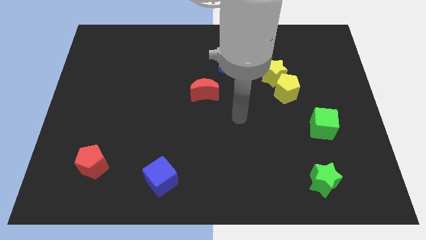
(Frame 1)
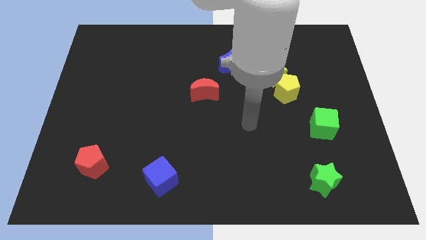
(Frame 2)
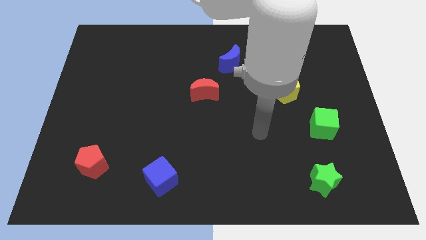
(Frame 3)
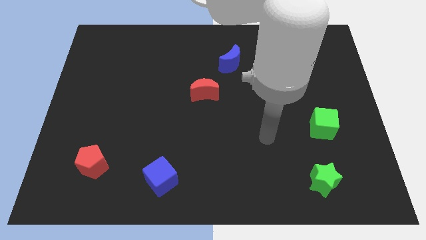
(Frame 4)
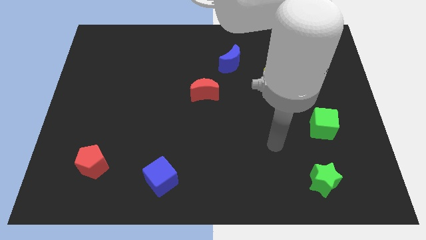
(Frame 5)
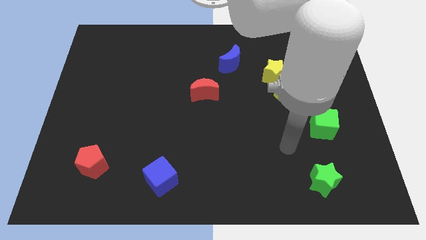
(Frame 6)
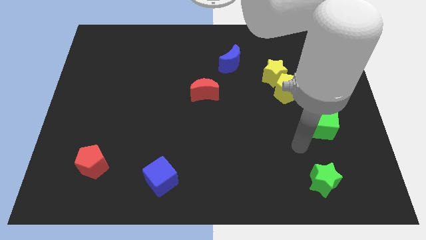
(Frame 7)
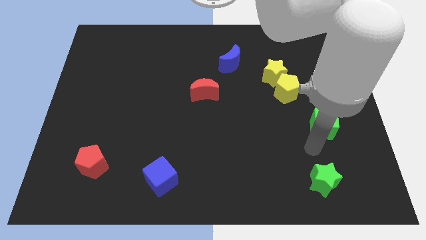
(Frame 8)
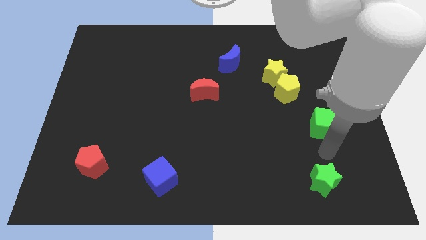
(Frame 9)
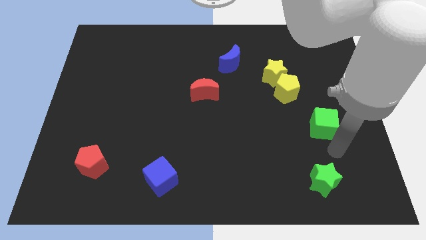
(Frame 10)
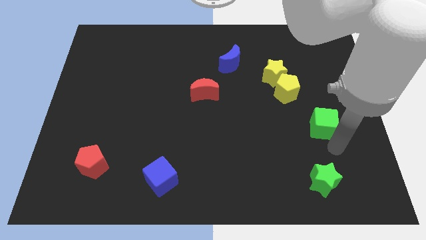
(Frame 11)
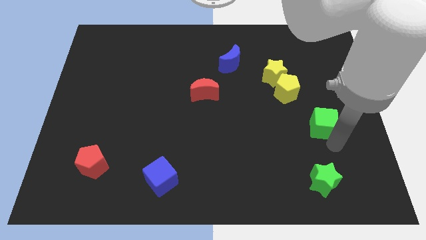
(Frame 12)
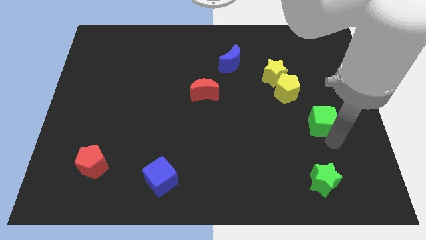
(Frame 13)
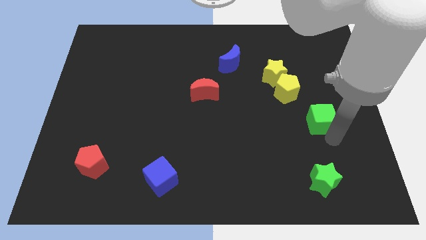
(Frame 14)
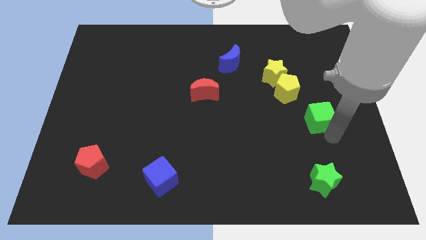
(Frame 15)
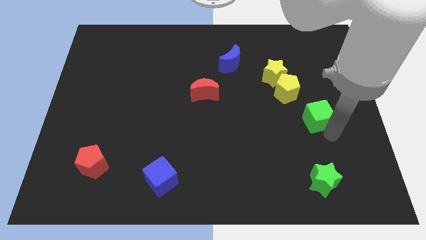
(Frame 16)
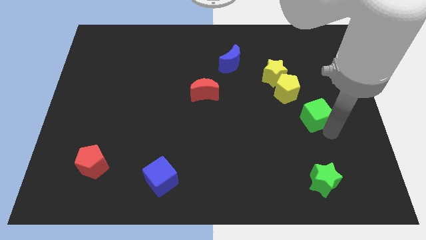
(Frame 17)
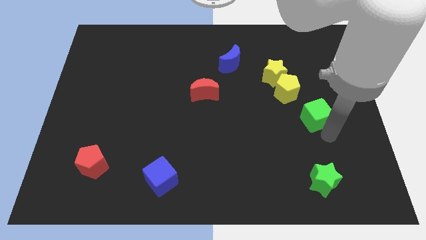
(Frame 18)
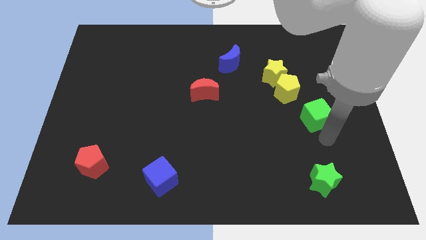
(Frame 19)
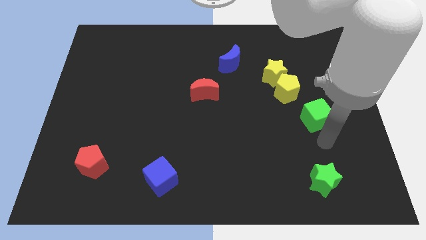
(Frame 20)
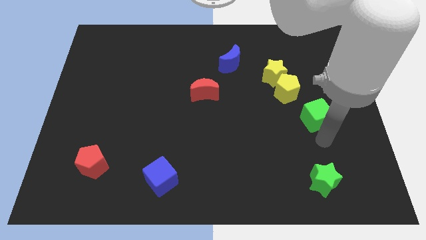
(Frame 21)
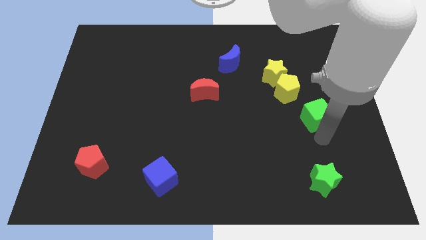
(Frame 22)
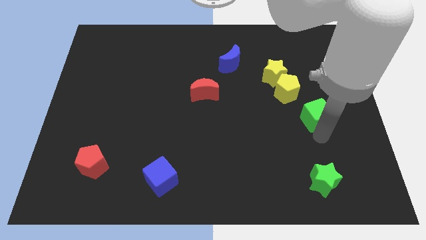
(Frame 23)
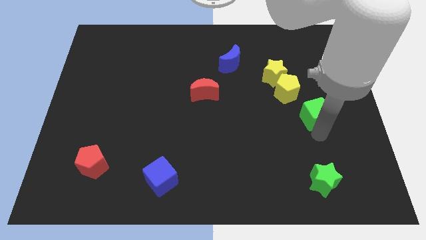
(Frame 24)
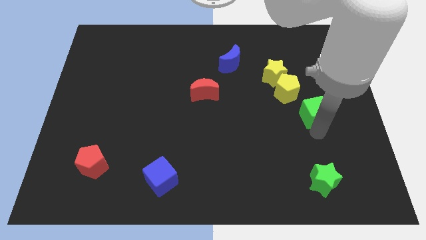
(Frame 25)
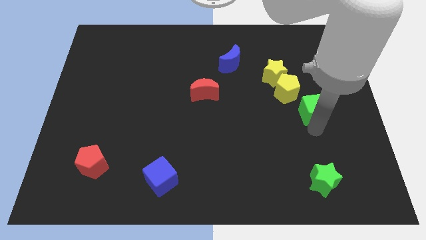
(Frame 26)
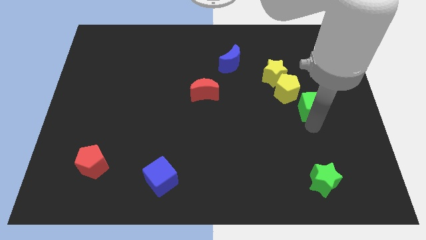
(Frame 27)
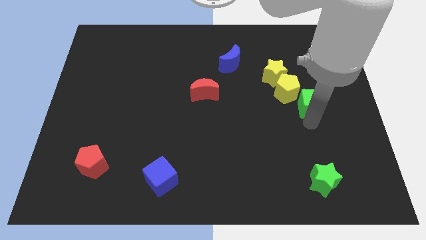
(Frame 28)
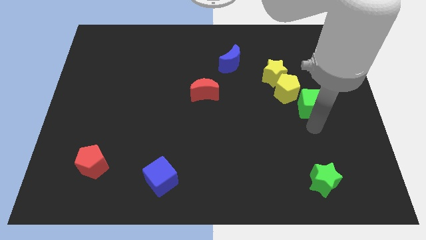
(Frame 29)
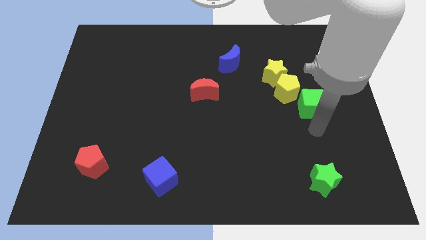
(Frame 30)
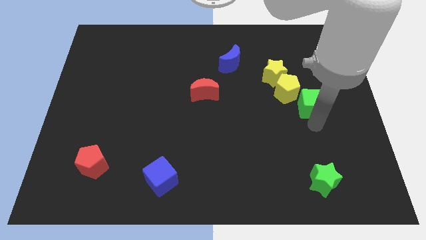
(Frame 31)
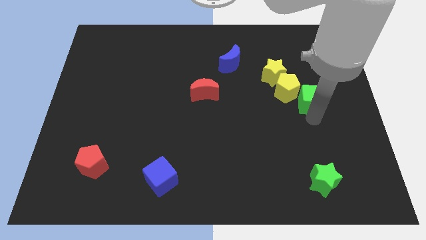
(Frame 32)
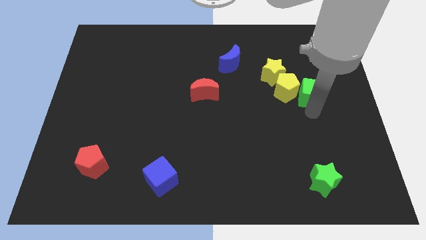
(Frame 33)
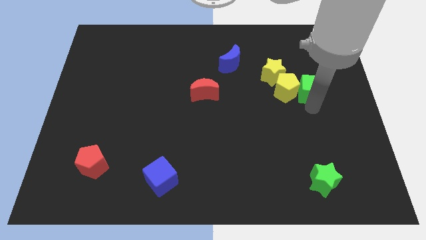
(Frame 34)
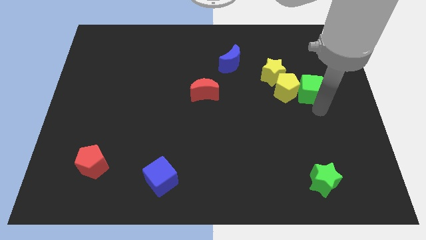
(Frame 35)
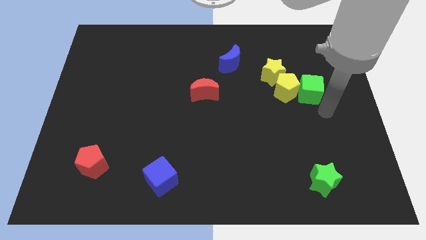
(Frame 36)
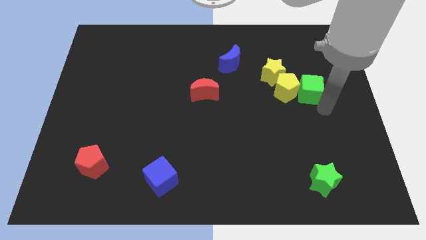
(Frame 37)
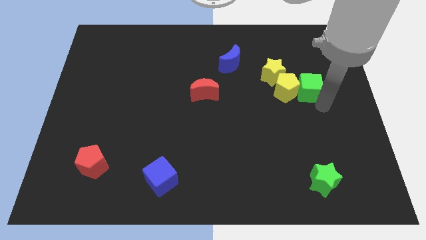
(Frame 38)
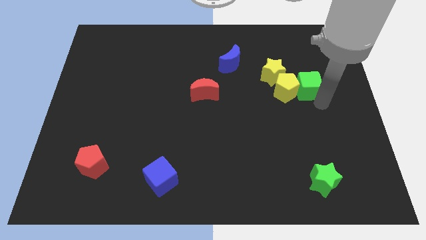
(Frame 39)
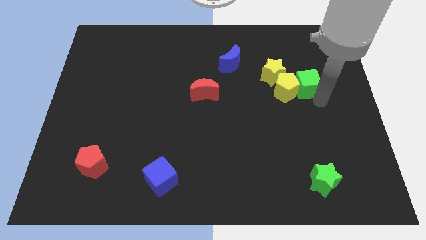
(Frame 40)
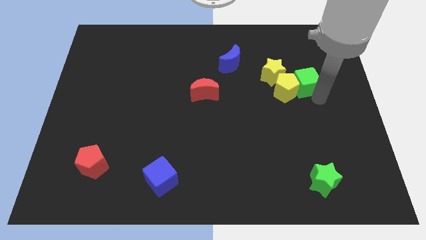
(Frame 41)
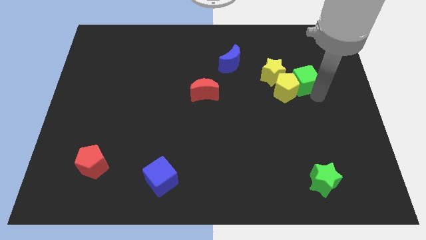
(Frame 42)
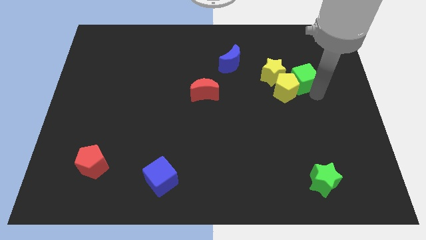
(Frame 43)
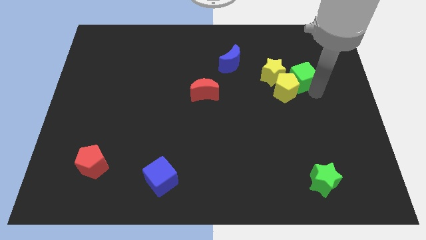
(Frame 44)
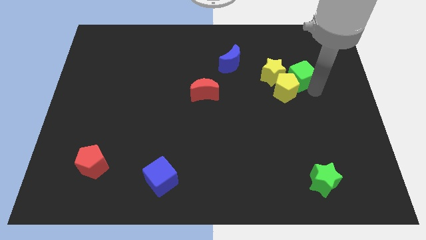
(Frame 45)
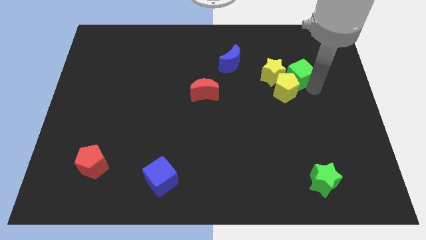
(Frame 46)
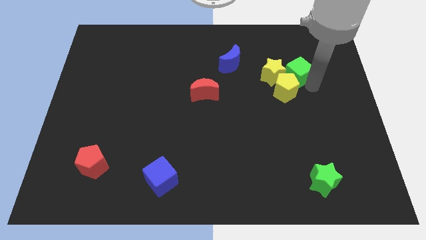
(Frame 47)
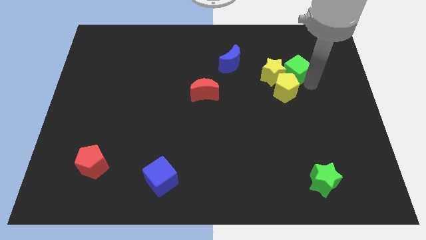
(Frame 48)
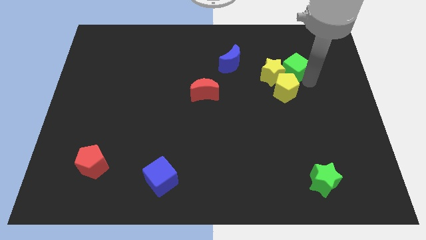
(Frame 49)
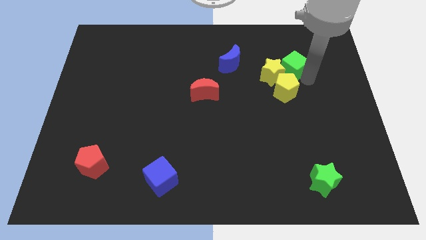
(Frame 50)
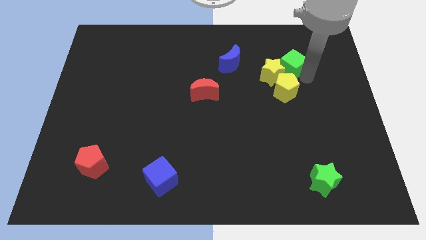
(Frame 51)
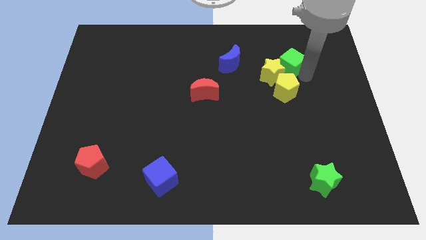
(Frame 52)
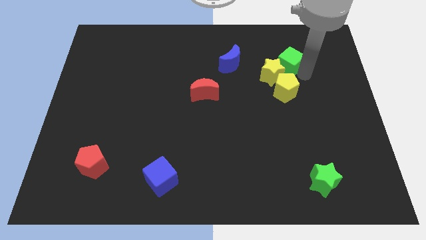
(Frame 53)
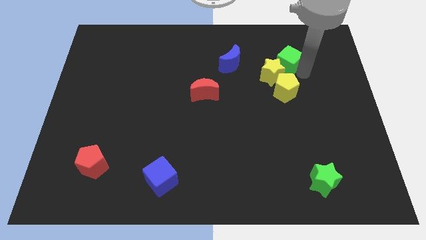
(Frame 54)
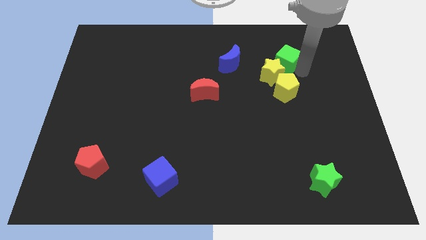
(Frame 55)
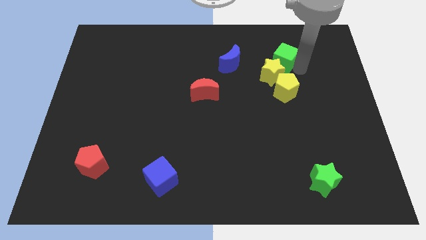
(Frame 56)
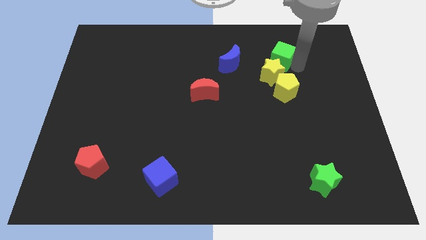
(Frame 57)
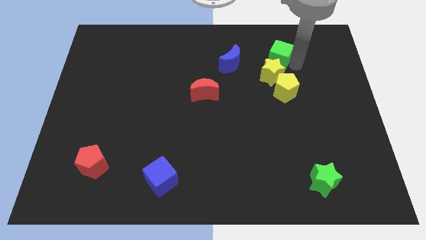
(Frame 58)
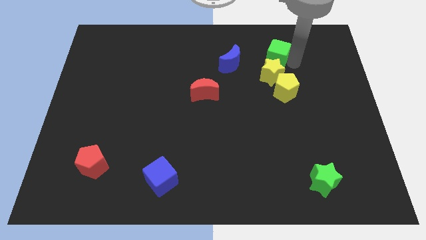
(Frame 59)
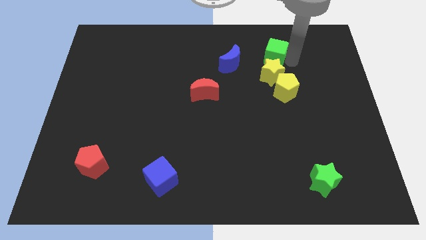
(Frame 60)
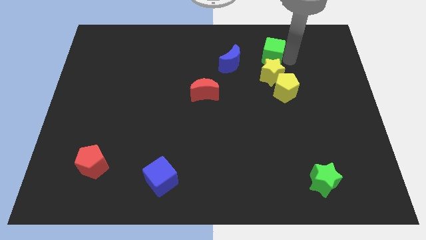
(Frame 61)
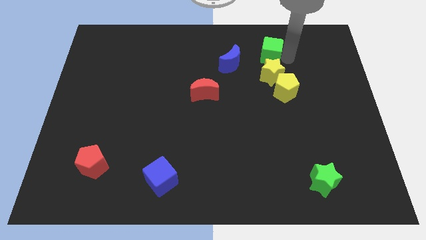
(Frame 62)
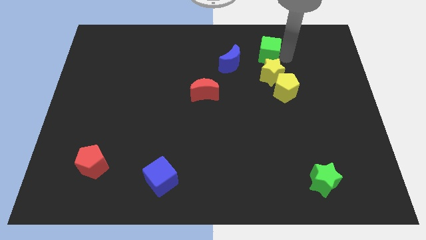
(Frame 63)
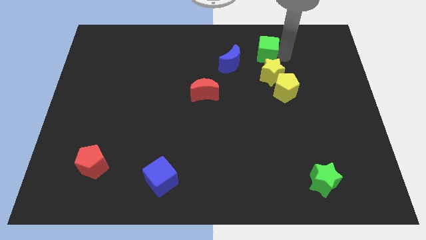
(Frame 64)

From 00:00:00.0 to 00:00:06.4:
push the green cube upwards and left diagonally

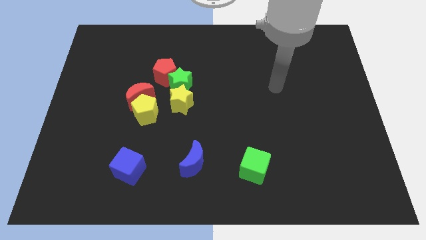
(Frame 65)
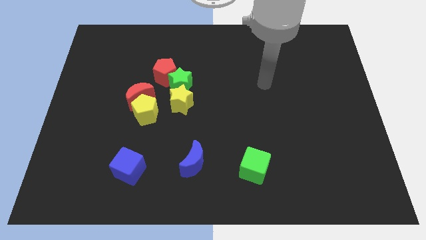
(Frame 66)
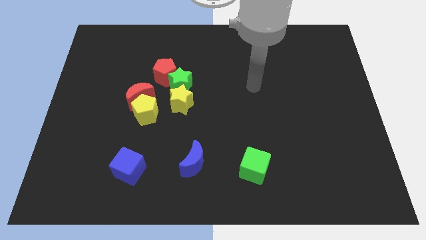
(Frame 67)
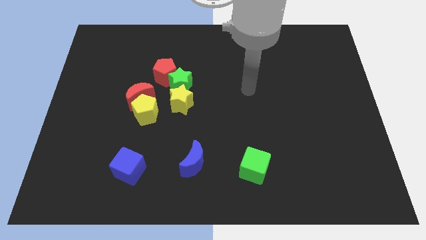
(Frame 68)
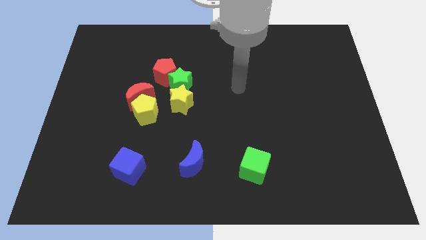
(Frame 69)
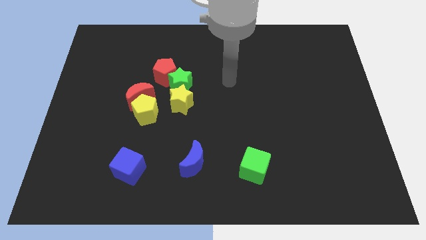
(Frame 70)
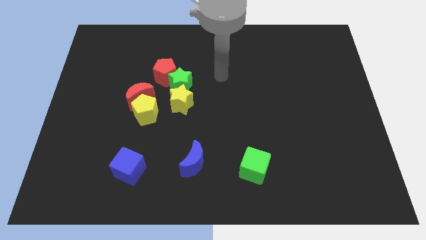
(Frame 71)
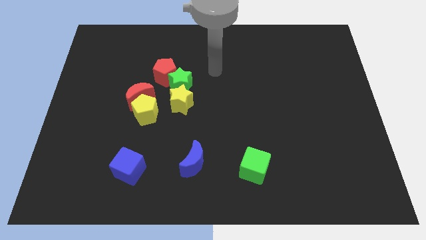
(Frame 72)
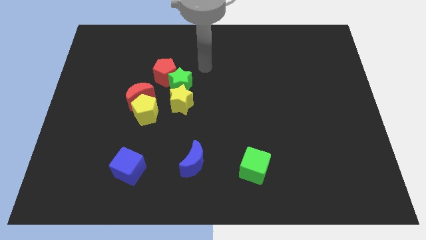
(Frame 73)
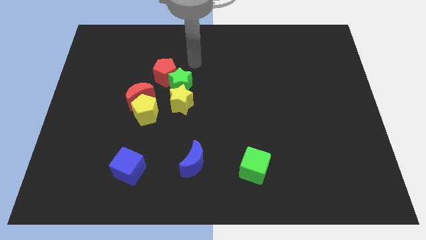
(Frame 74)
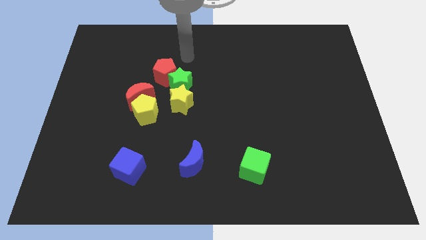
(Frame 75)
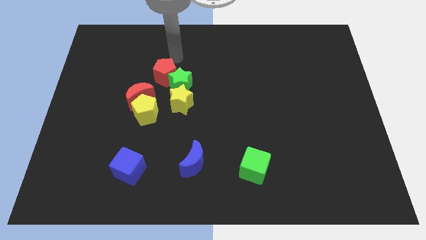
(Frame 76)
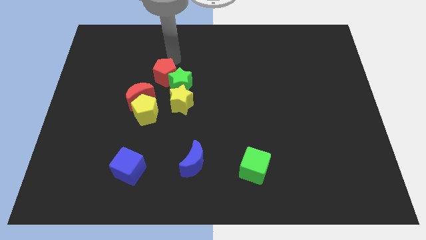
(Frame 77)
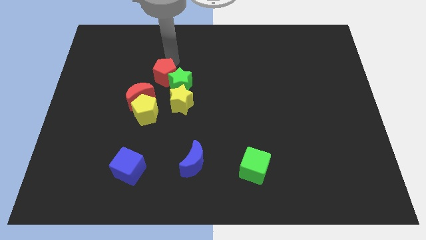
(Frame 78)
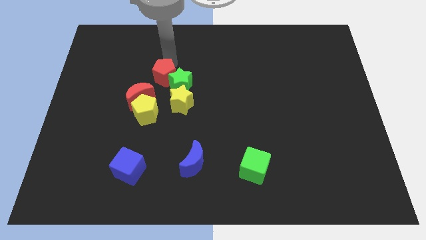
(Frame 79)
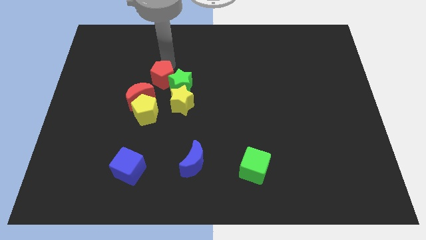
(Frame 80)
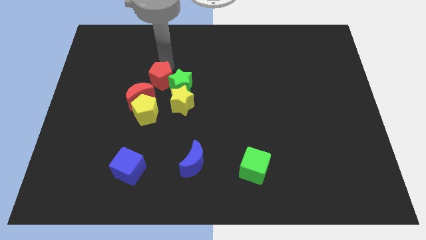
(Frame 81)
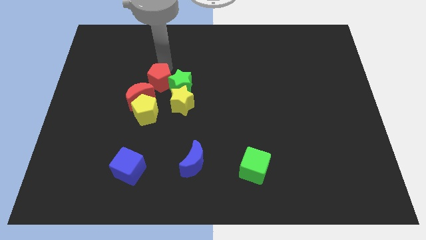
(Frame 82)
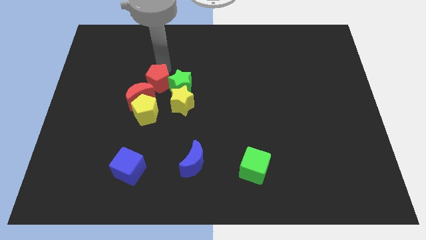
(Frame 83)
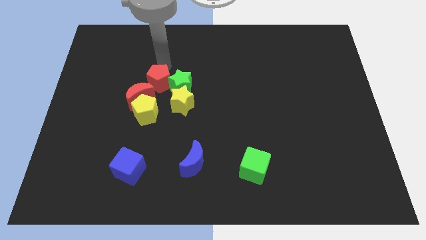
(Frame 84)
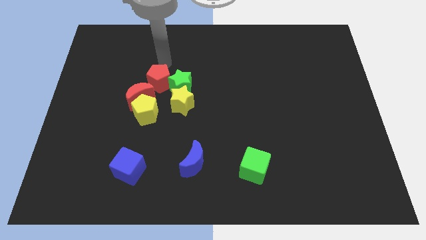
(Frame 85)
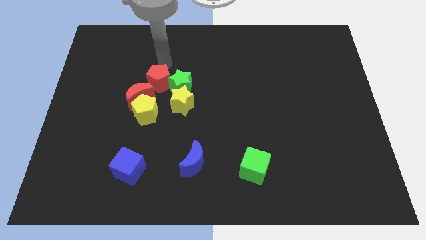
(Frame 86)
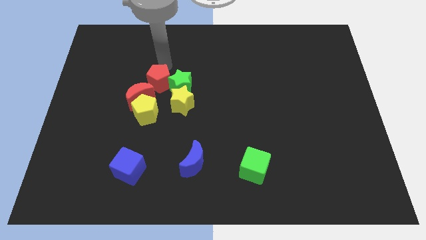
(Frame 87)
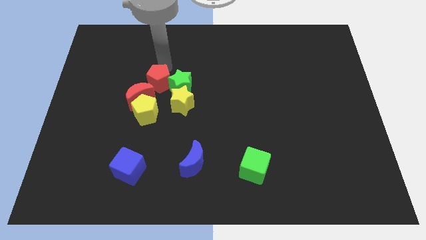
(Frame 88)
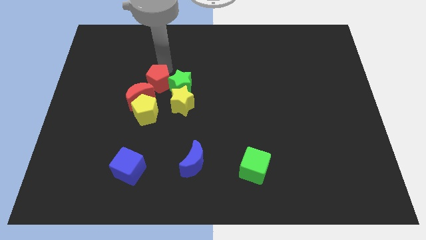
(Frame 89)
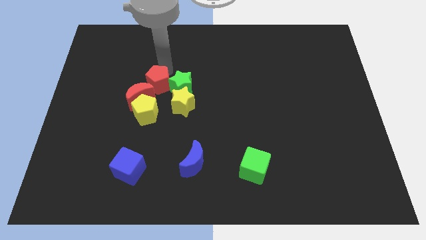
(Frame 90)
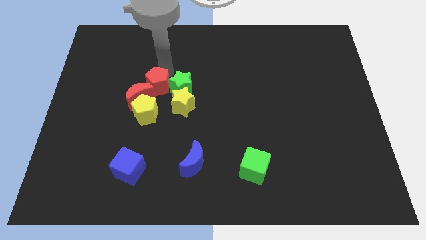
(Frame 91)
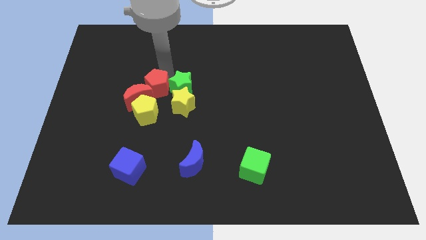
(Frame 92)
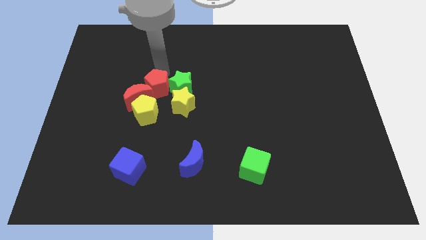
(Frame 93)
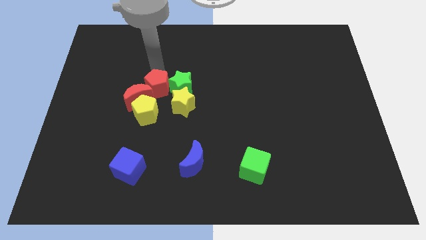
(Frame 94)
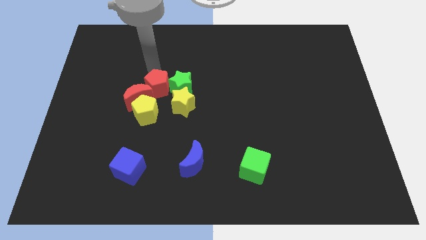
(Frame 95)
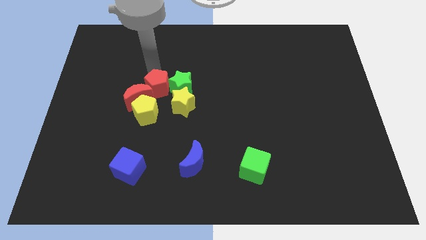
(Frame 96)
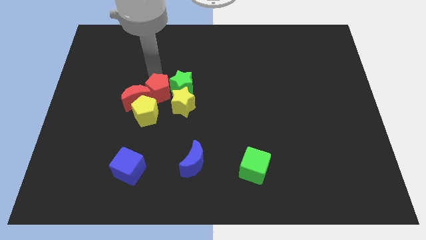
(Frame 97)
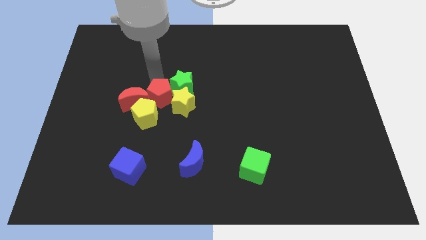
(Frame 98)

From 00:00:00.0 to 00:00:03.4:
slide the red pentagon slightly downwards
